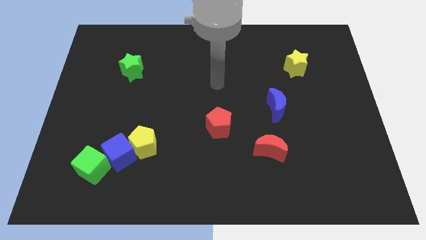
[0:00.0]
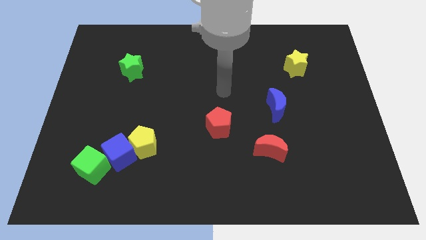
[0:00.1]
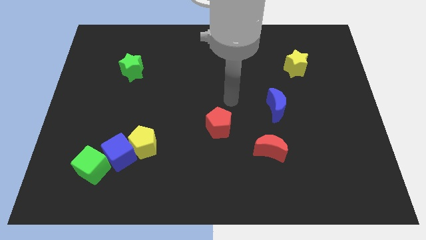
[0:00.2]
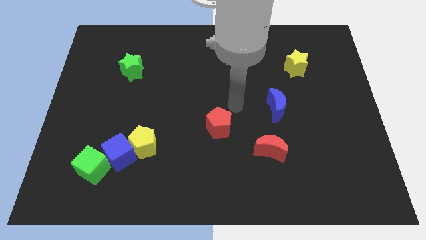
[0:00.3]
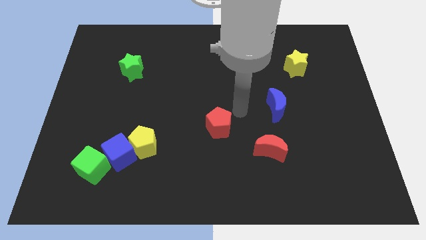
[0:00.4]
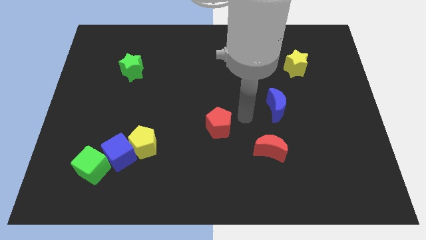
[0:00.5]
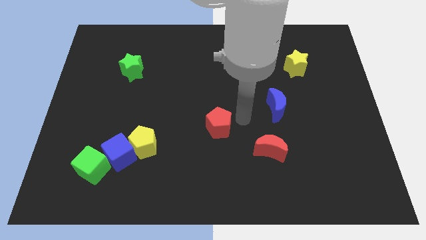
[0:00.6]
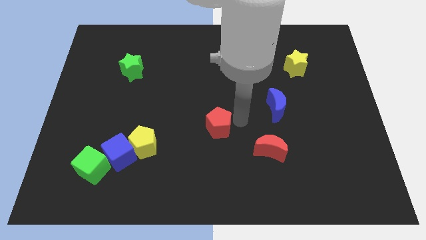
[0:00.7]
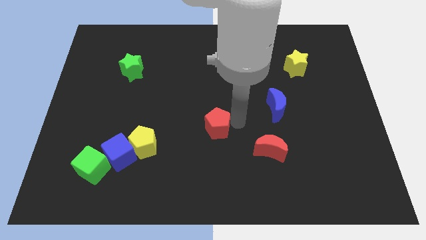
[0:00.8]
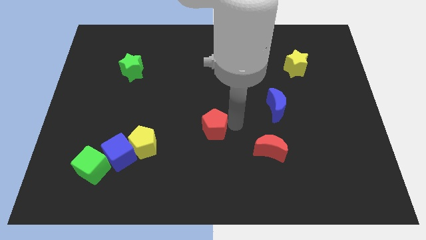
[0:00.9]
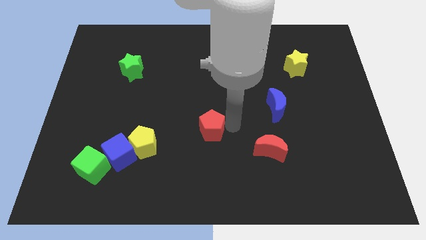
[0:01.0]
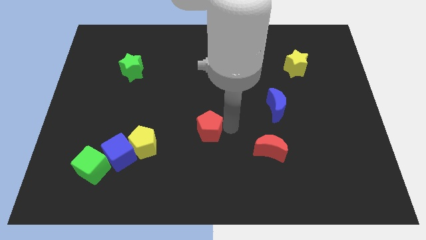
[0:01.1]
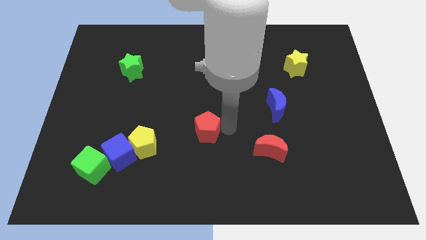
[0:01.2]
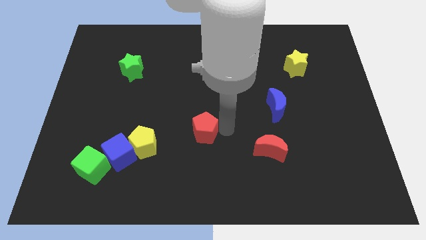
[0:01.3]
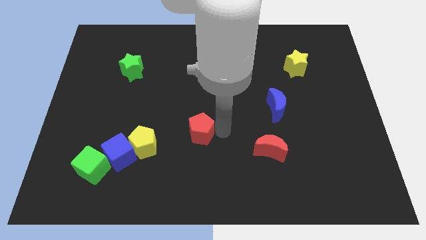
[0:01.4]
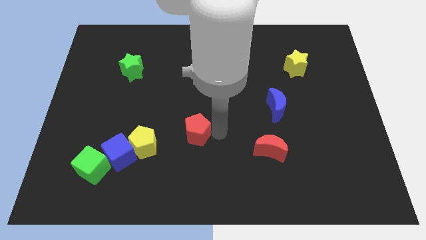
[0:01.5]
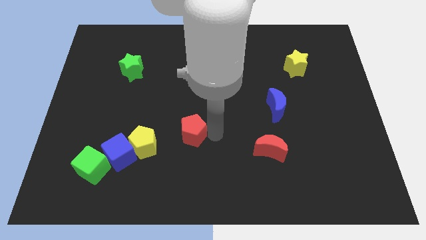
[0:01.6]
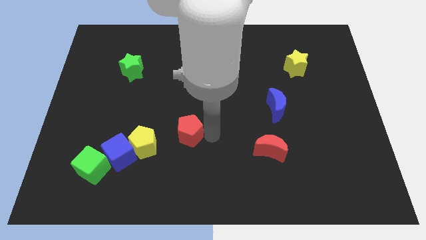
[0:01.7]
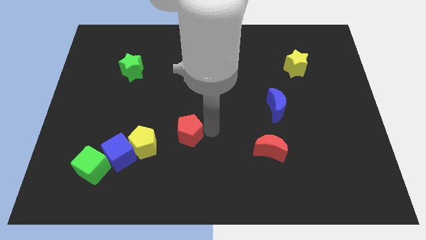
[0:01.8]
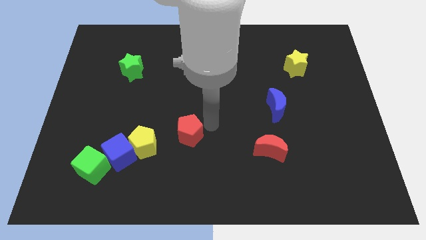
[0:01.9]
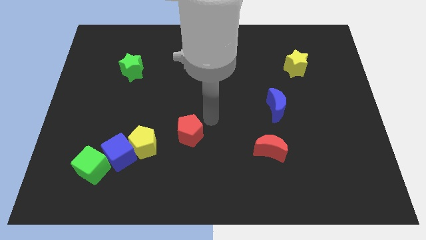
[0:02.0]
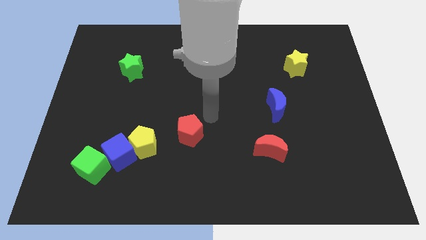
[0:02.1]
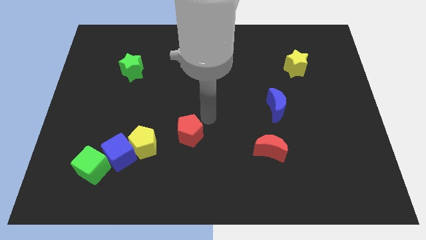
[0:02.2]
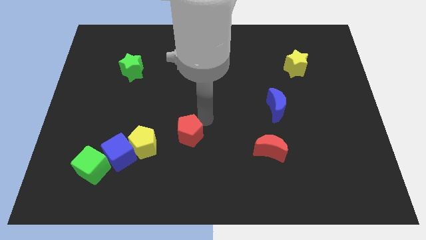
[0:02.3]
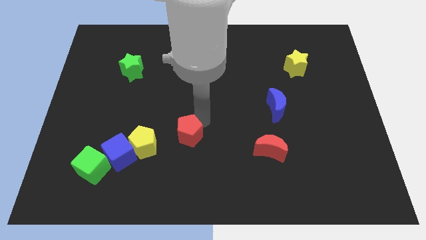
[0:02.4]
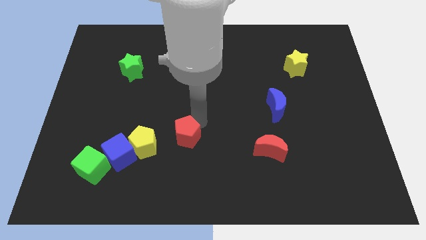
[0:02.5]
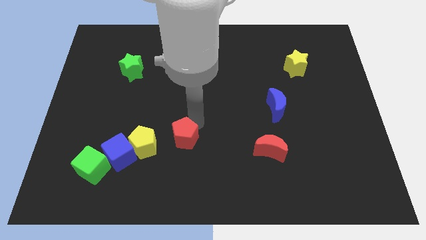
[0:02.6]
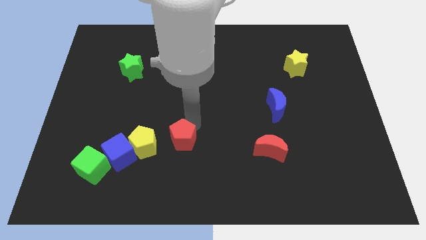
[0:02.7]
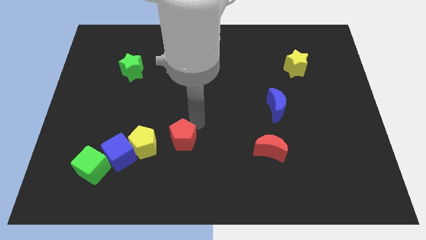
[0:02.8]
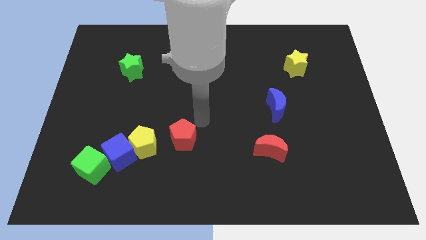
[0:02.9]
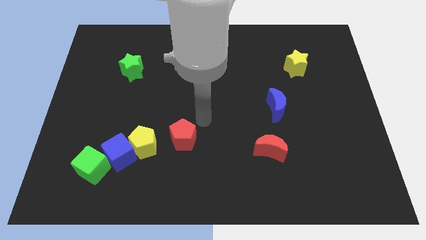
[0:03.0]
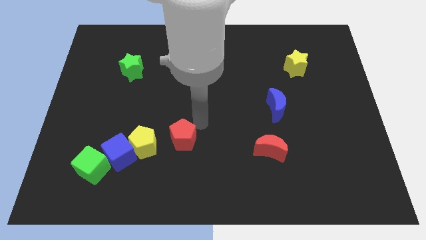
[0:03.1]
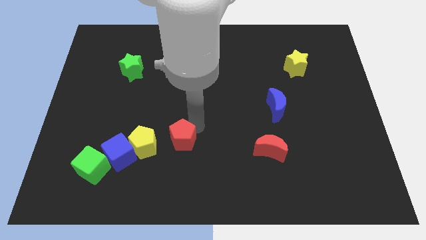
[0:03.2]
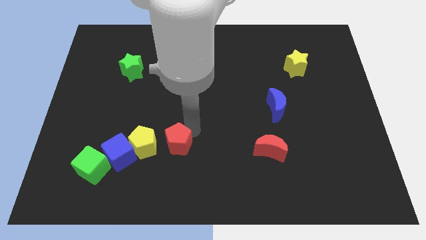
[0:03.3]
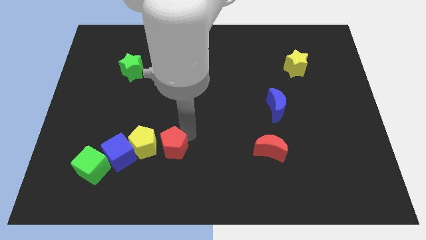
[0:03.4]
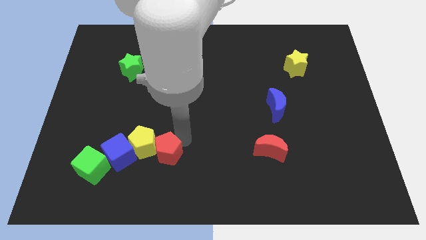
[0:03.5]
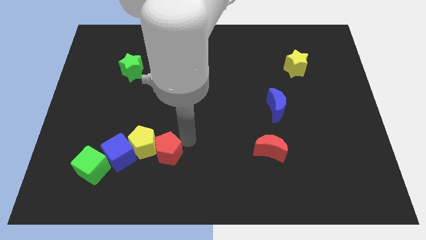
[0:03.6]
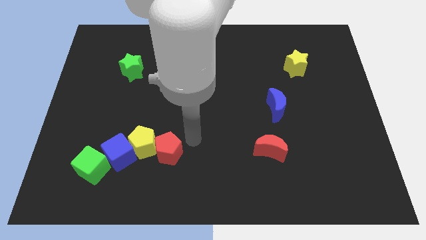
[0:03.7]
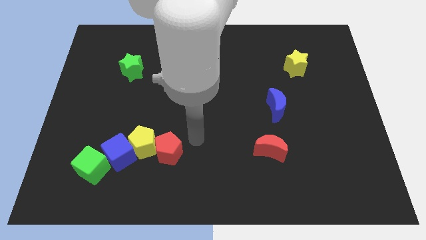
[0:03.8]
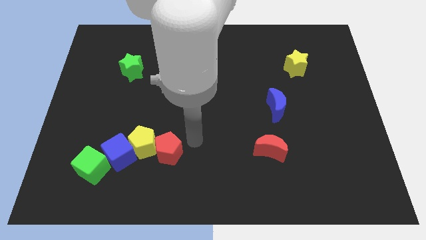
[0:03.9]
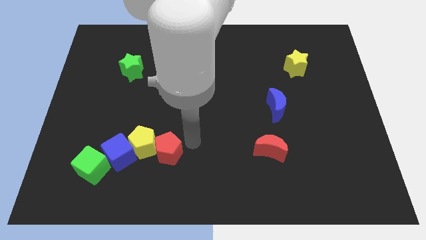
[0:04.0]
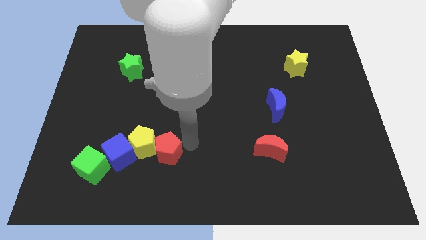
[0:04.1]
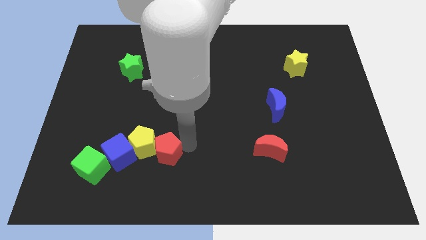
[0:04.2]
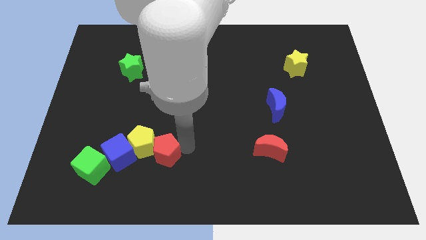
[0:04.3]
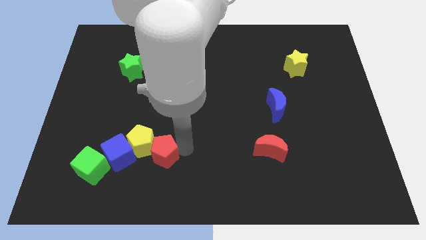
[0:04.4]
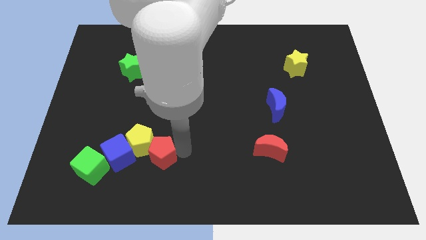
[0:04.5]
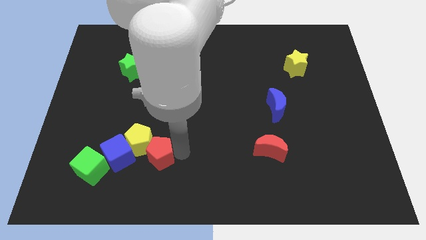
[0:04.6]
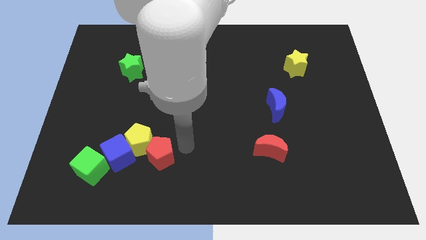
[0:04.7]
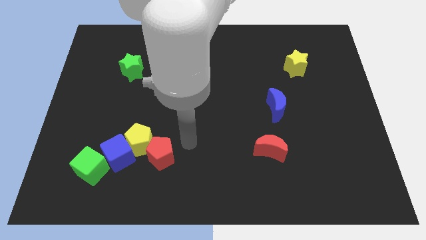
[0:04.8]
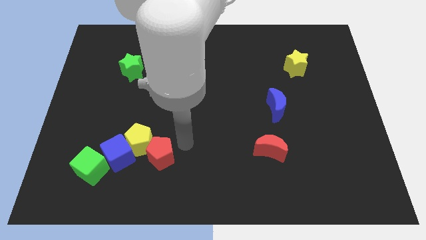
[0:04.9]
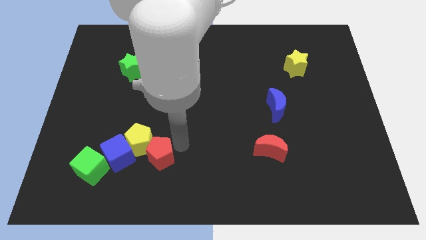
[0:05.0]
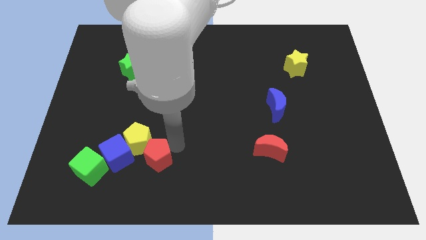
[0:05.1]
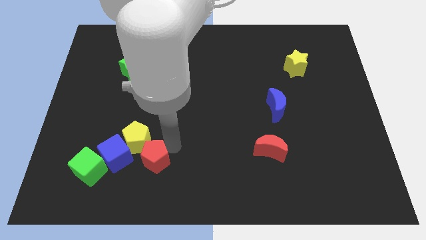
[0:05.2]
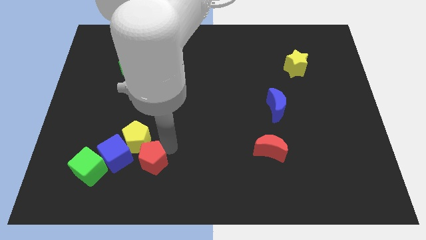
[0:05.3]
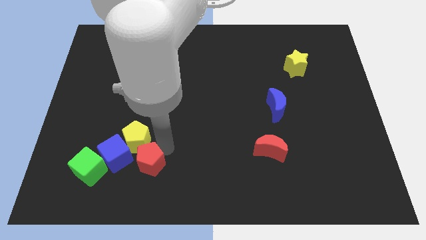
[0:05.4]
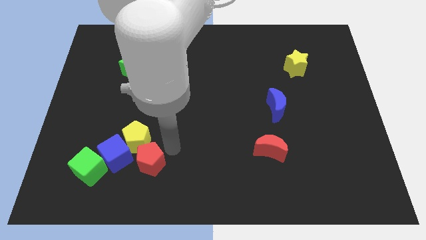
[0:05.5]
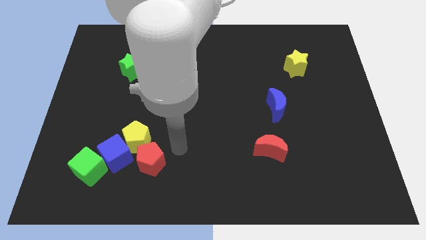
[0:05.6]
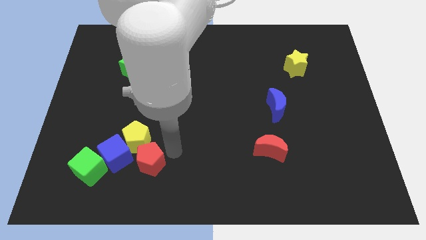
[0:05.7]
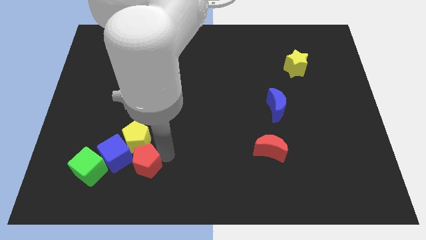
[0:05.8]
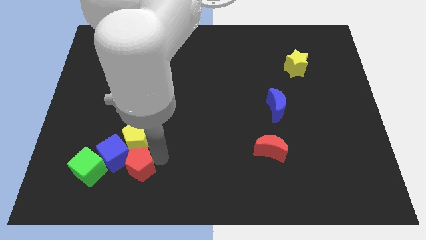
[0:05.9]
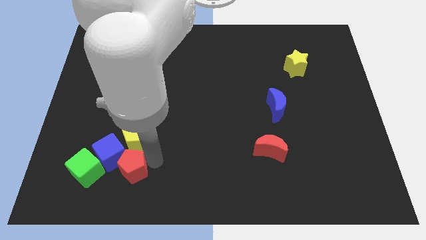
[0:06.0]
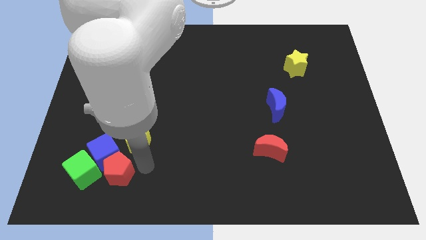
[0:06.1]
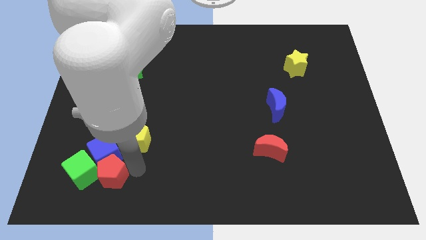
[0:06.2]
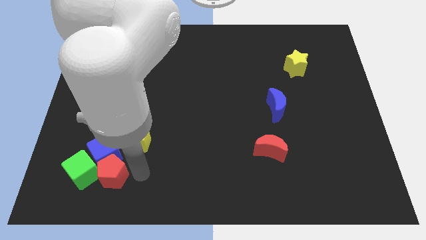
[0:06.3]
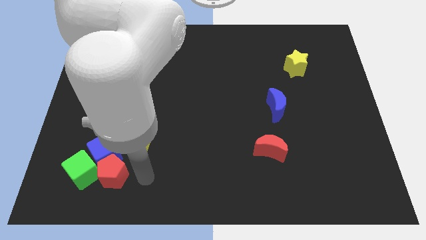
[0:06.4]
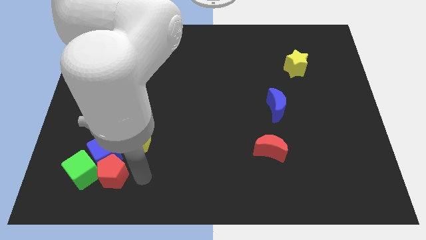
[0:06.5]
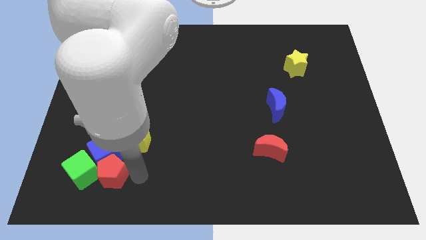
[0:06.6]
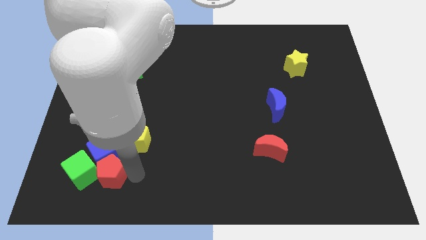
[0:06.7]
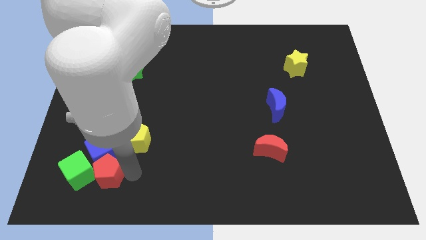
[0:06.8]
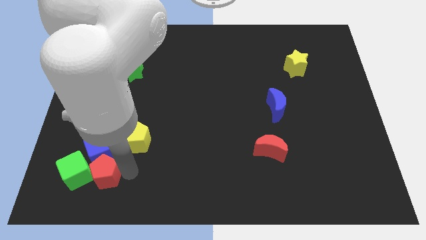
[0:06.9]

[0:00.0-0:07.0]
push the red pentagon next to the green cube
